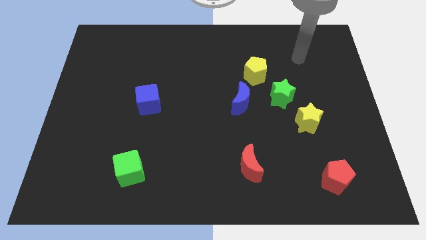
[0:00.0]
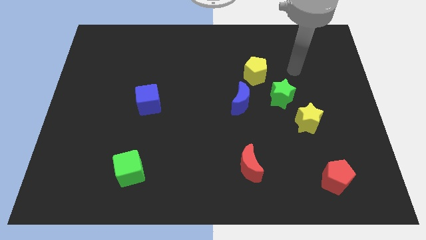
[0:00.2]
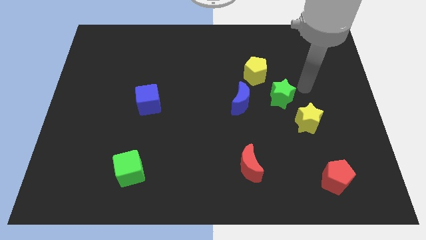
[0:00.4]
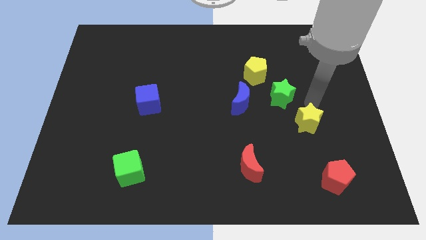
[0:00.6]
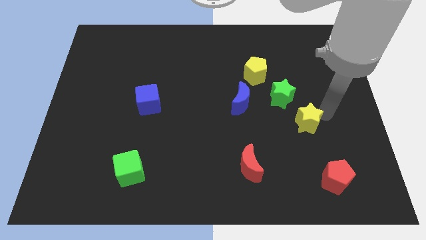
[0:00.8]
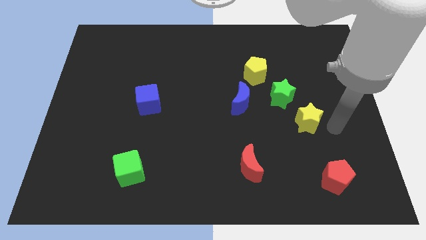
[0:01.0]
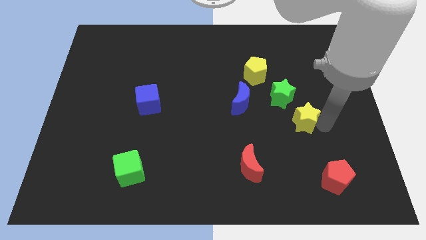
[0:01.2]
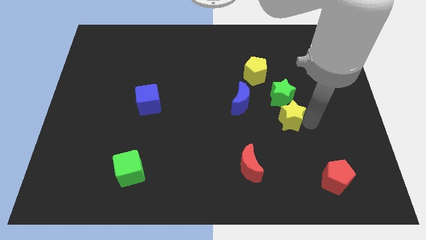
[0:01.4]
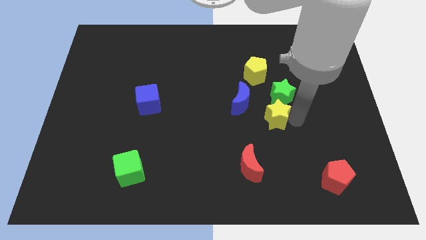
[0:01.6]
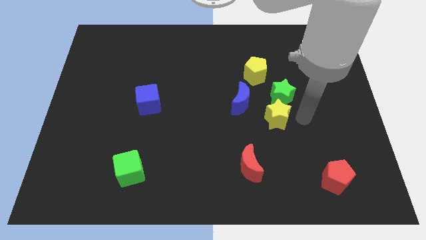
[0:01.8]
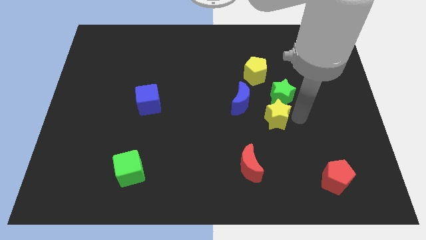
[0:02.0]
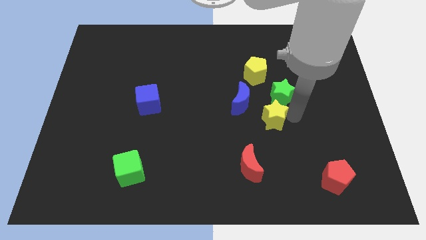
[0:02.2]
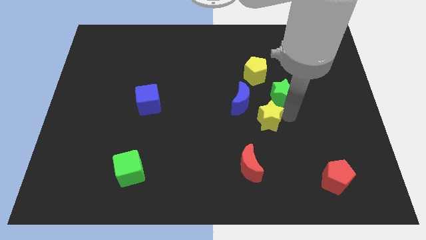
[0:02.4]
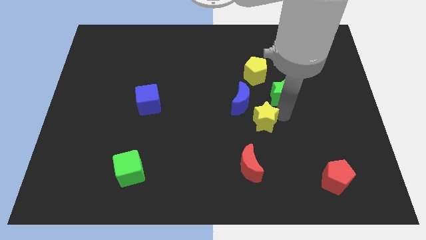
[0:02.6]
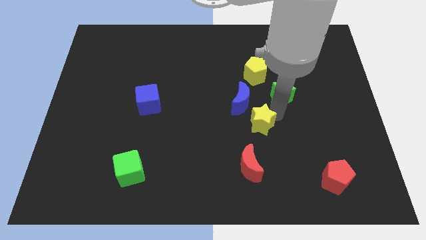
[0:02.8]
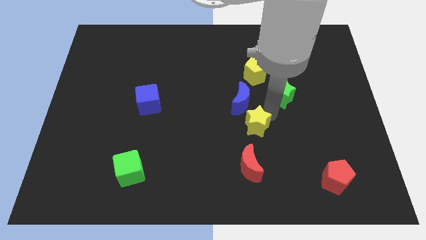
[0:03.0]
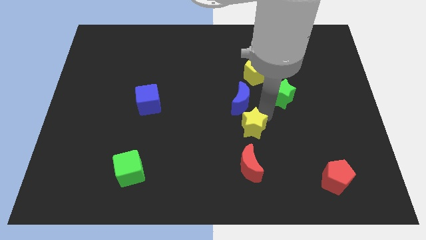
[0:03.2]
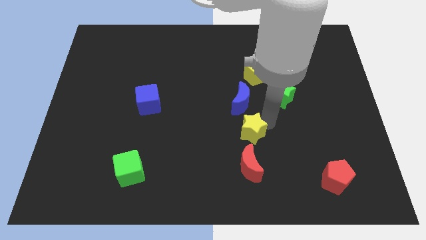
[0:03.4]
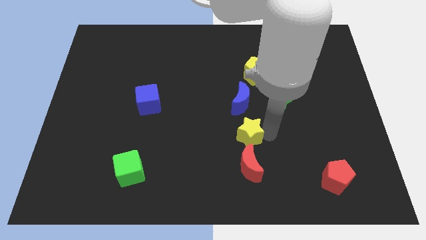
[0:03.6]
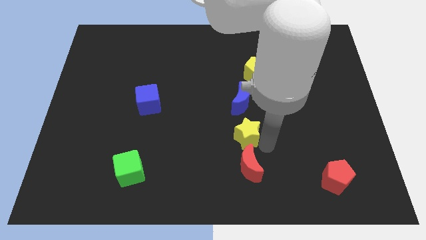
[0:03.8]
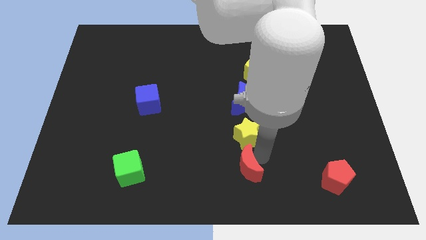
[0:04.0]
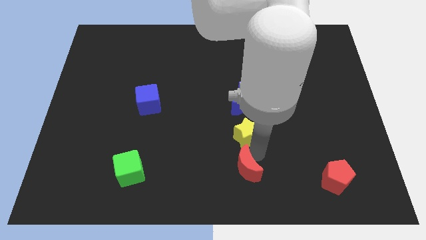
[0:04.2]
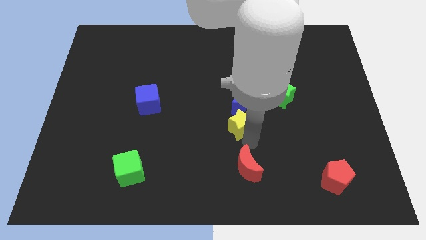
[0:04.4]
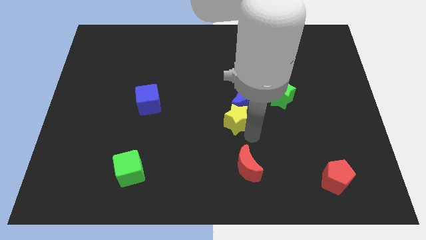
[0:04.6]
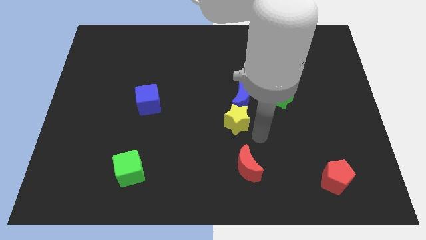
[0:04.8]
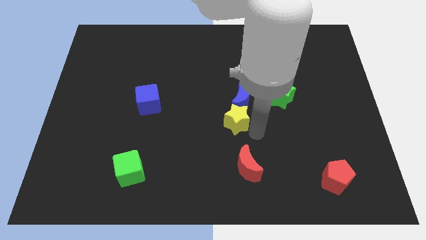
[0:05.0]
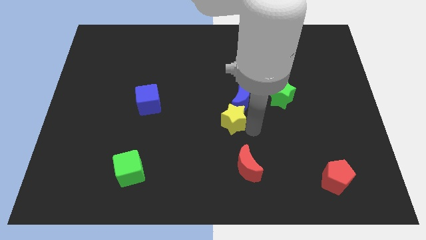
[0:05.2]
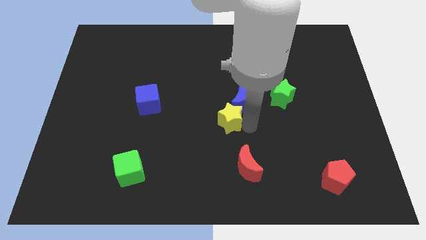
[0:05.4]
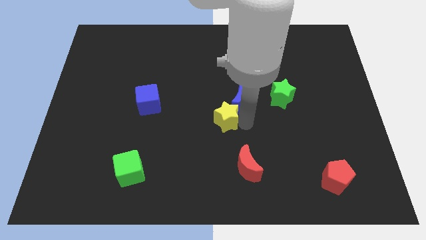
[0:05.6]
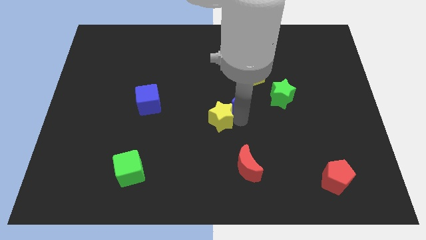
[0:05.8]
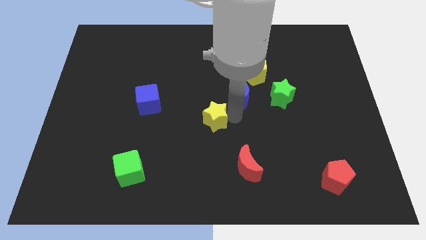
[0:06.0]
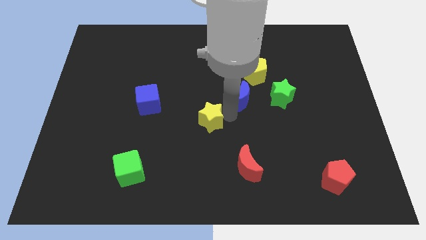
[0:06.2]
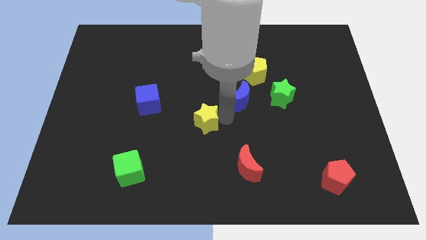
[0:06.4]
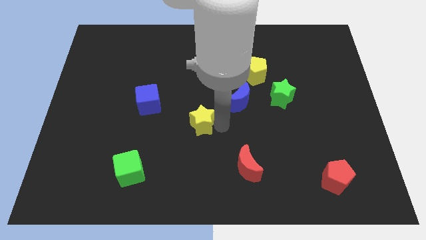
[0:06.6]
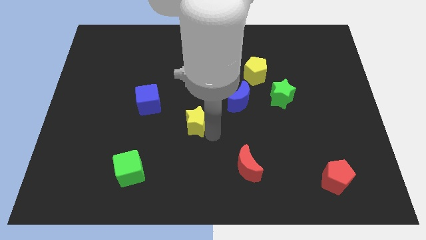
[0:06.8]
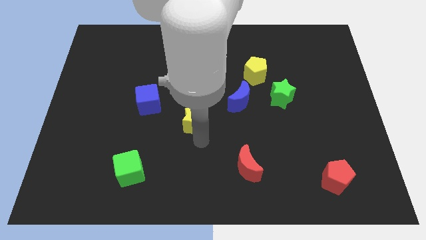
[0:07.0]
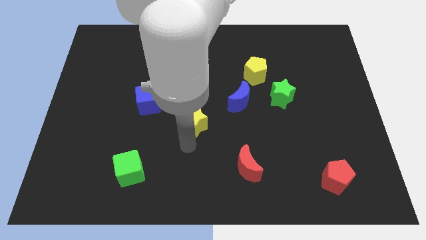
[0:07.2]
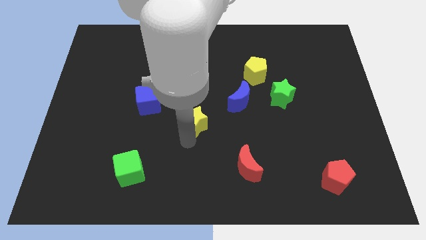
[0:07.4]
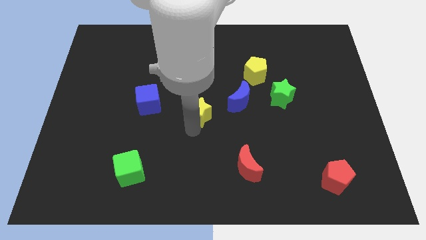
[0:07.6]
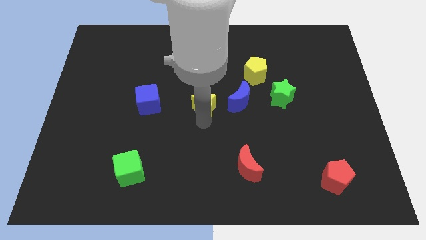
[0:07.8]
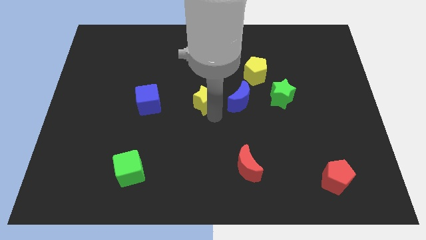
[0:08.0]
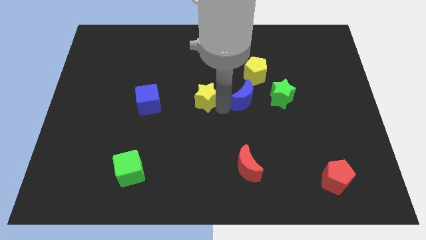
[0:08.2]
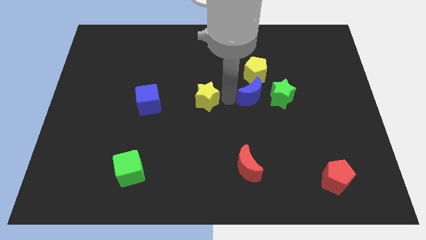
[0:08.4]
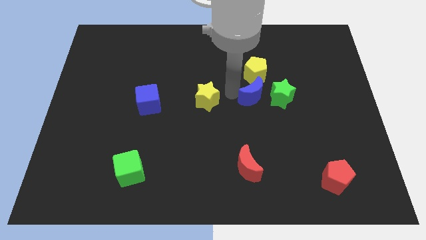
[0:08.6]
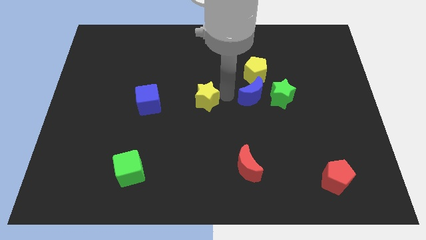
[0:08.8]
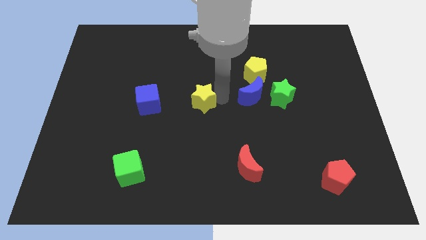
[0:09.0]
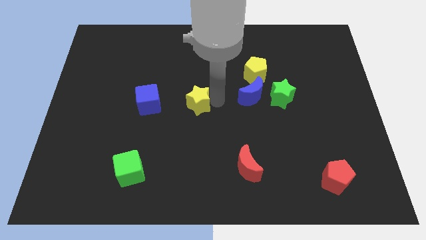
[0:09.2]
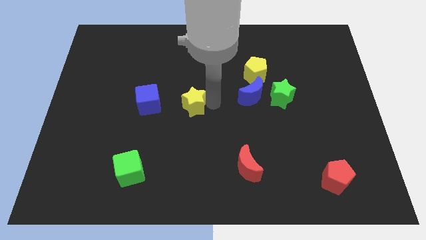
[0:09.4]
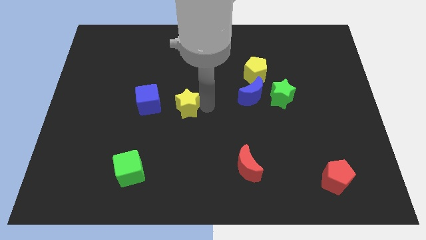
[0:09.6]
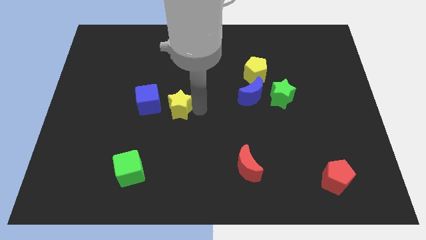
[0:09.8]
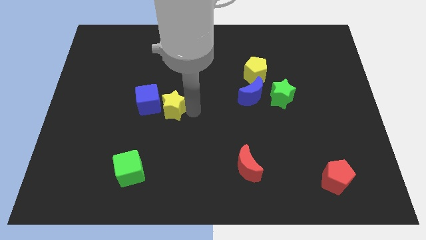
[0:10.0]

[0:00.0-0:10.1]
put the yellow star to the blue cube

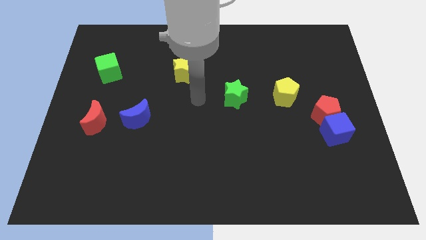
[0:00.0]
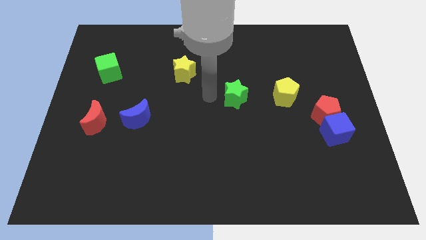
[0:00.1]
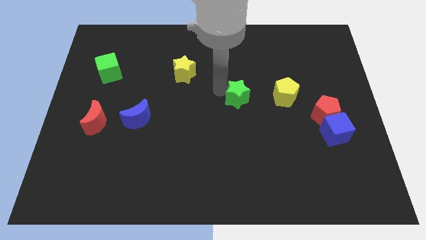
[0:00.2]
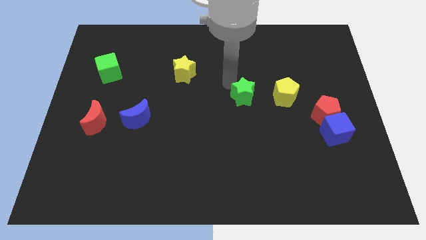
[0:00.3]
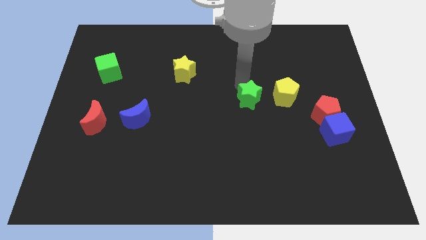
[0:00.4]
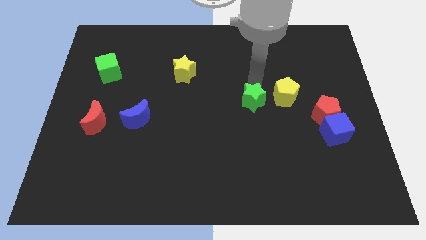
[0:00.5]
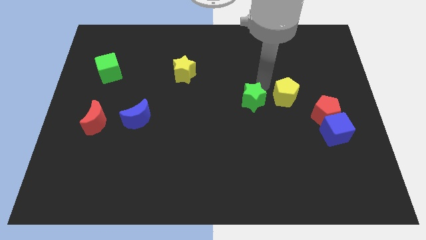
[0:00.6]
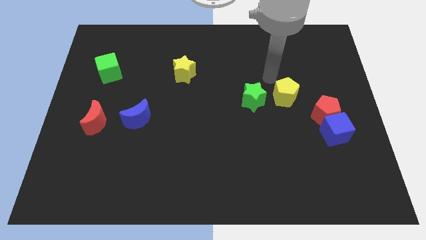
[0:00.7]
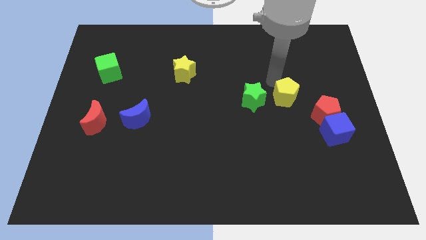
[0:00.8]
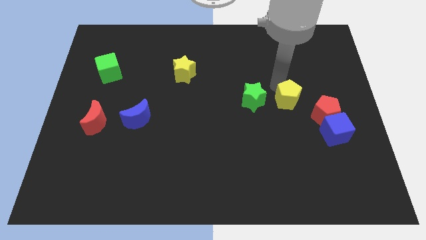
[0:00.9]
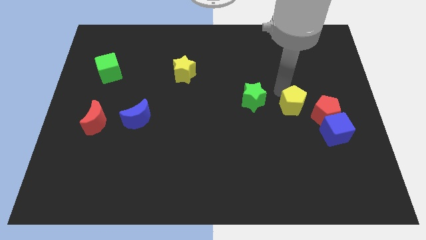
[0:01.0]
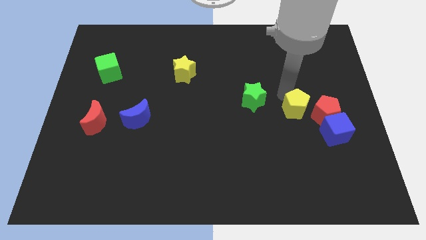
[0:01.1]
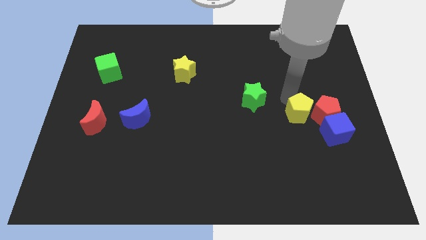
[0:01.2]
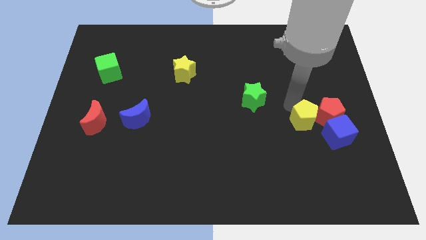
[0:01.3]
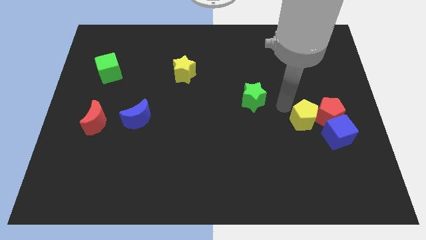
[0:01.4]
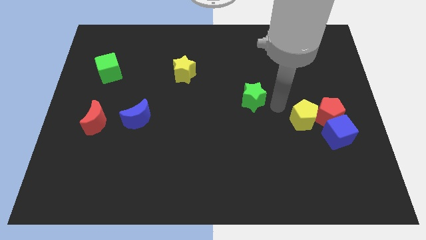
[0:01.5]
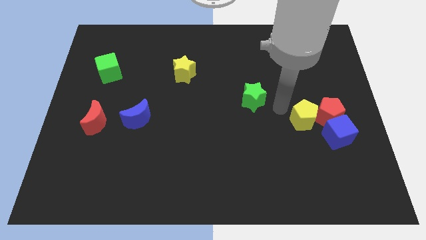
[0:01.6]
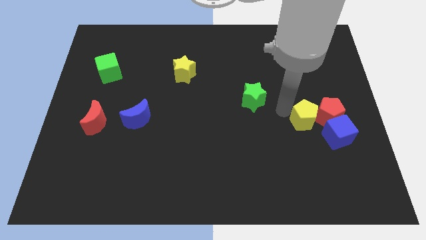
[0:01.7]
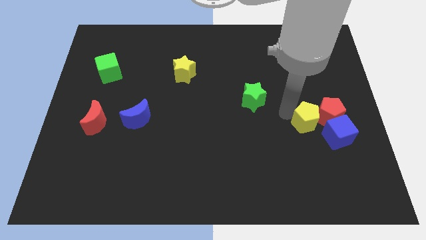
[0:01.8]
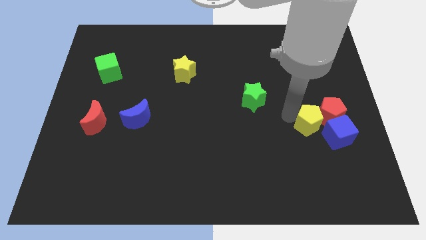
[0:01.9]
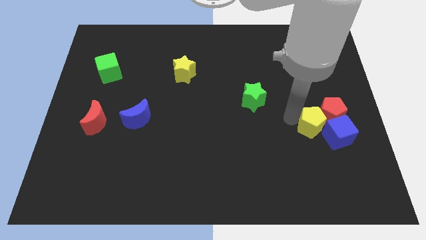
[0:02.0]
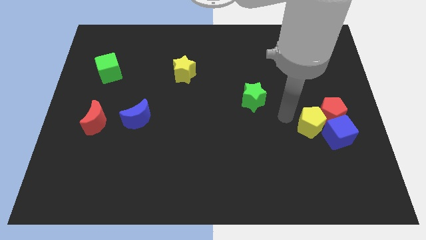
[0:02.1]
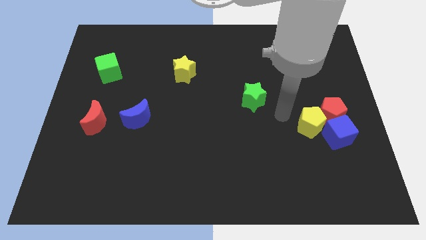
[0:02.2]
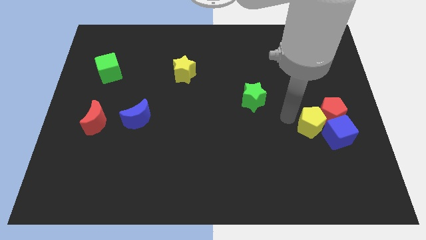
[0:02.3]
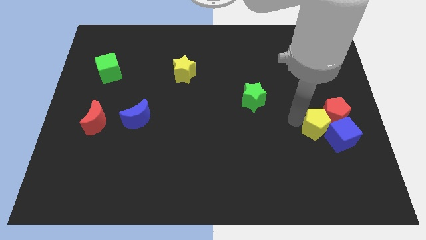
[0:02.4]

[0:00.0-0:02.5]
put the yellow pentagon to the blue cube

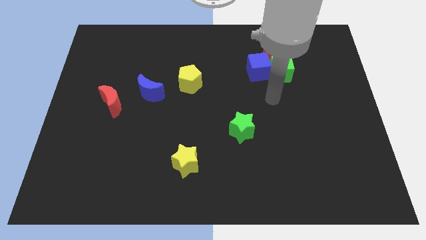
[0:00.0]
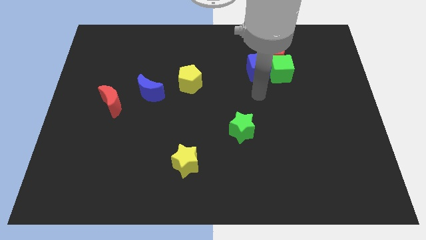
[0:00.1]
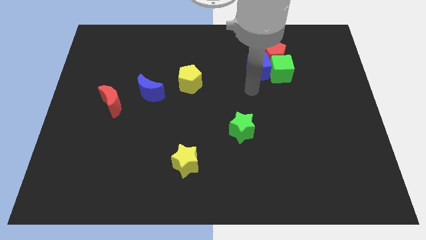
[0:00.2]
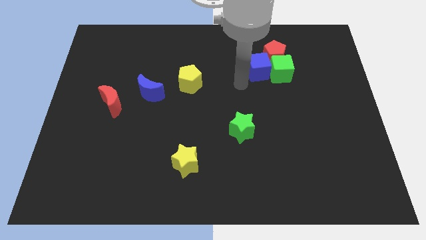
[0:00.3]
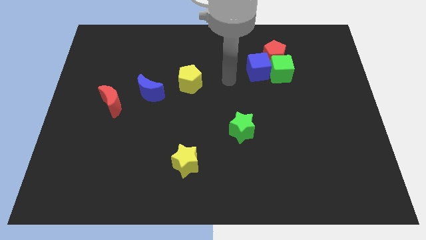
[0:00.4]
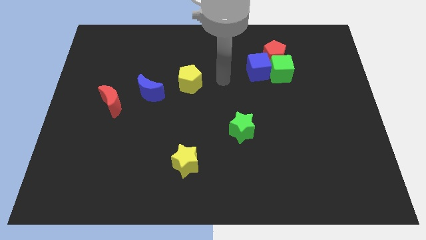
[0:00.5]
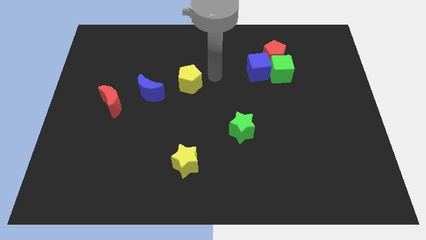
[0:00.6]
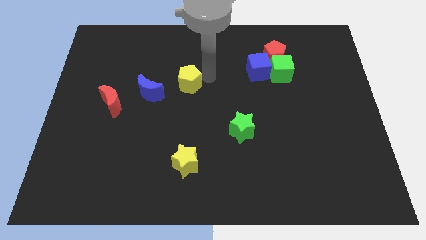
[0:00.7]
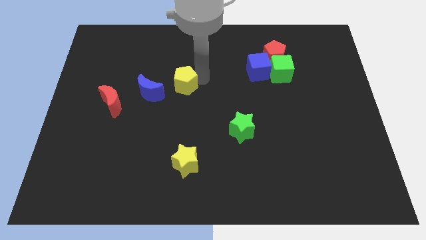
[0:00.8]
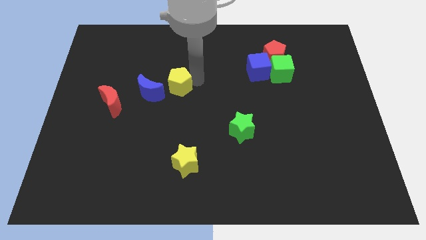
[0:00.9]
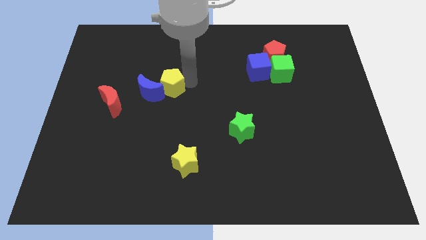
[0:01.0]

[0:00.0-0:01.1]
put the yellow pentagon to the blue moon
